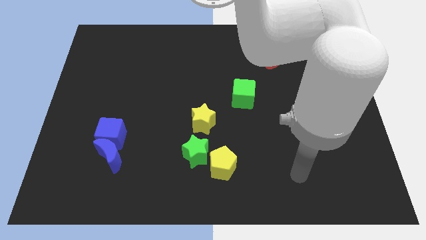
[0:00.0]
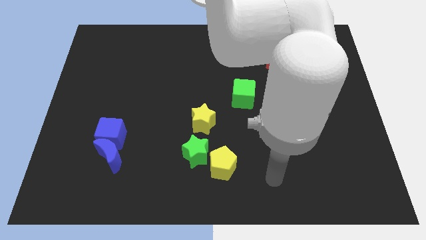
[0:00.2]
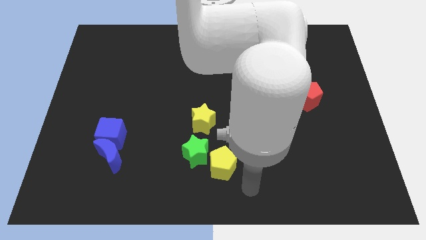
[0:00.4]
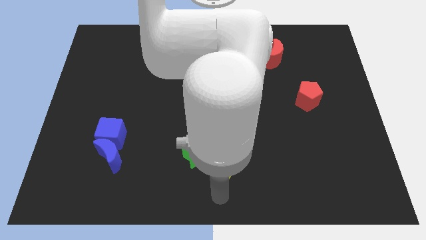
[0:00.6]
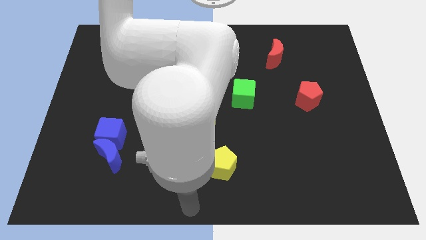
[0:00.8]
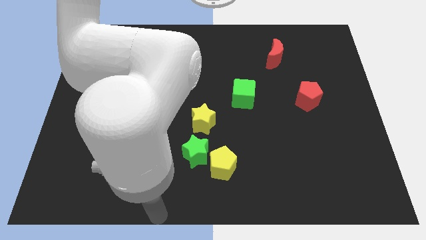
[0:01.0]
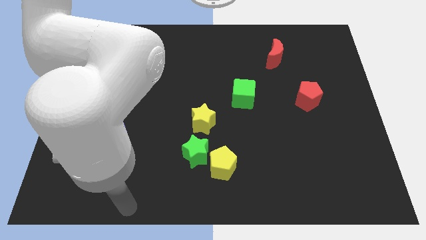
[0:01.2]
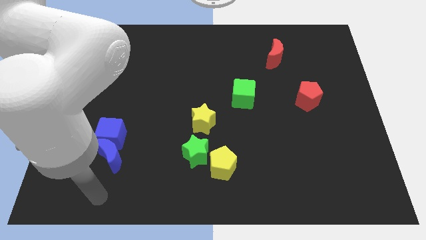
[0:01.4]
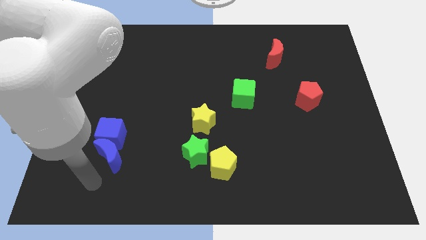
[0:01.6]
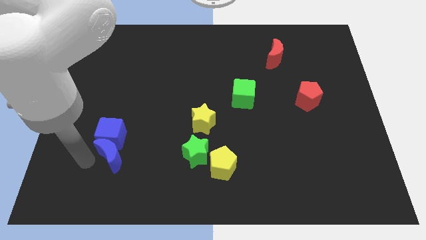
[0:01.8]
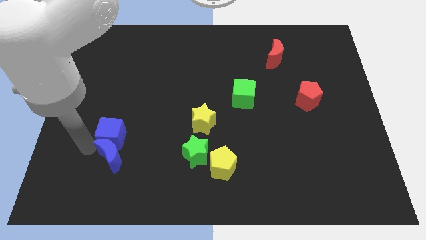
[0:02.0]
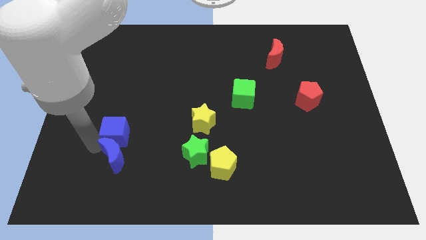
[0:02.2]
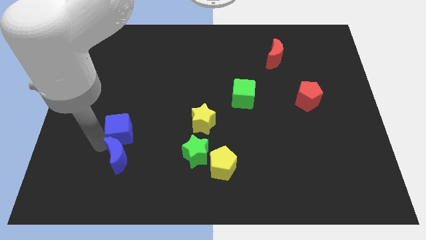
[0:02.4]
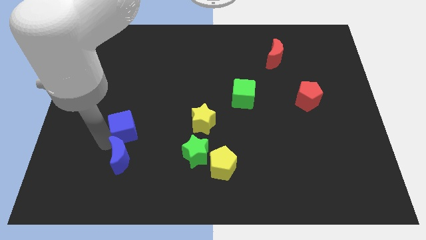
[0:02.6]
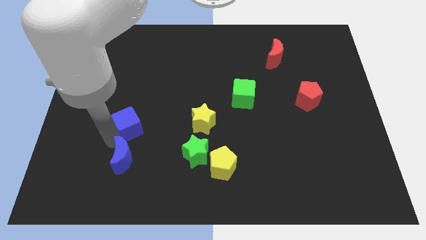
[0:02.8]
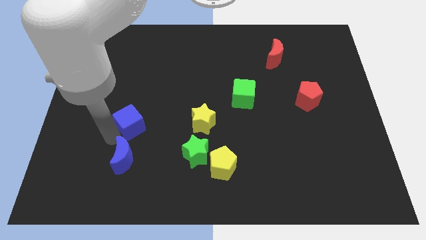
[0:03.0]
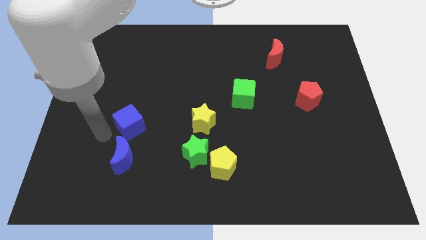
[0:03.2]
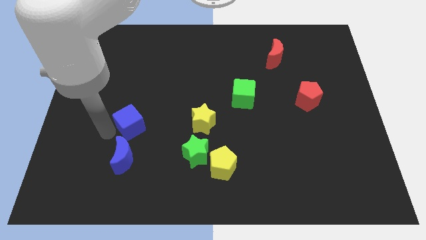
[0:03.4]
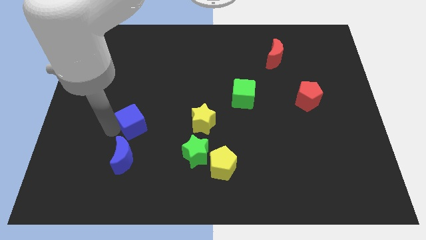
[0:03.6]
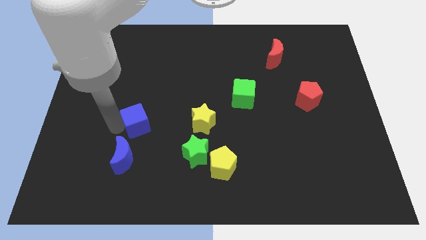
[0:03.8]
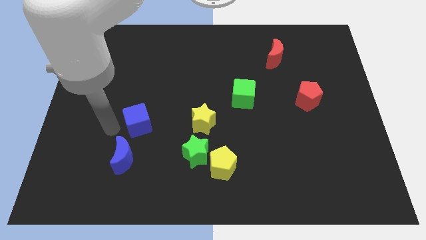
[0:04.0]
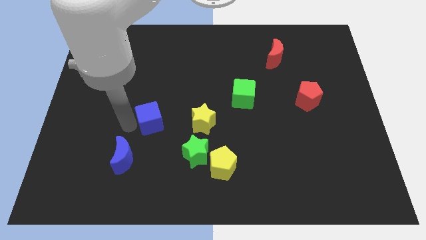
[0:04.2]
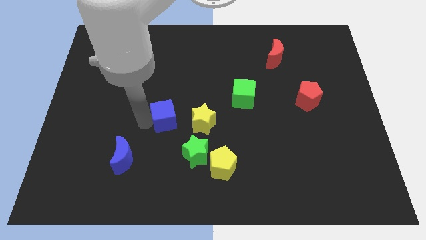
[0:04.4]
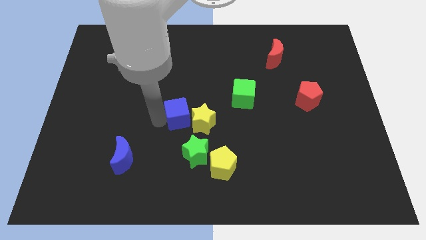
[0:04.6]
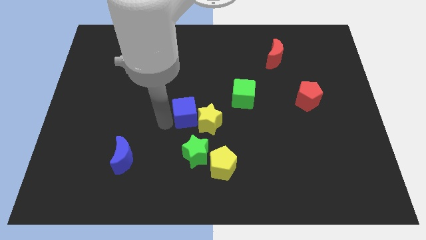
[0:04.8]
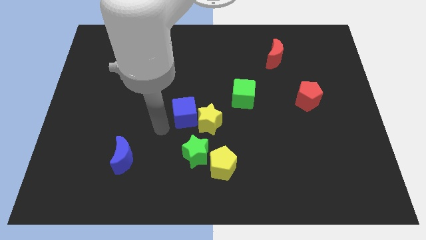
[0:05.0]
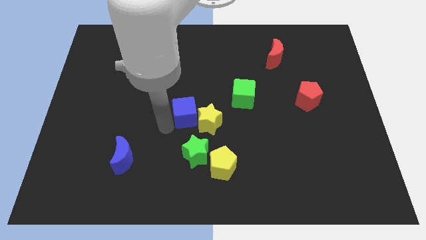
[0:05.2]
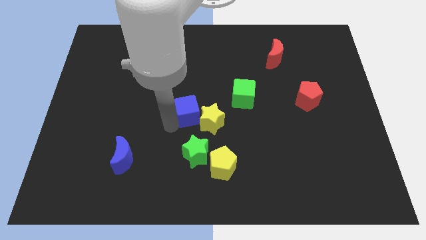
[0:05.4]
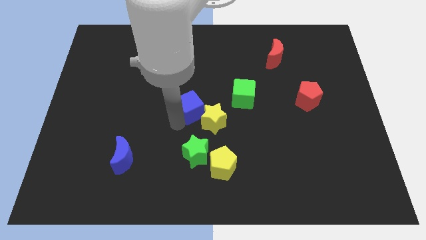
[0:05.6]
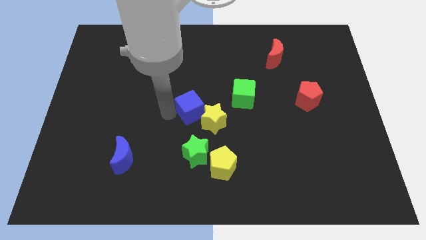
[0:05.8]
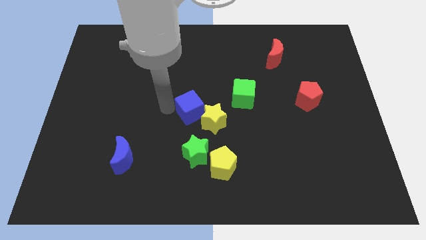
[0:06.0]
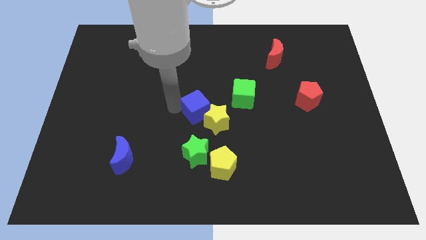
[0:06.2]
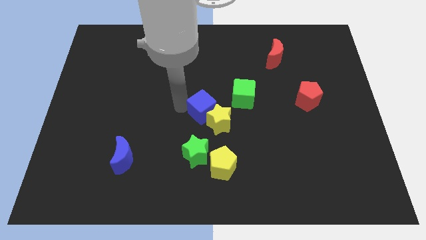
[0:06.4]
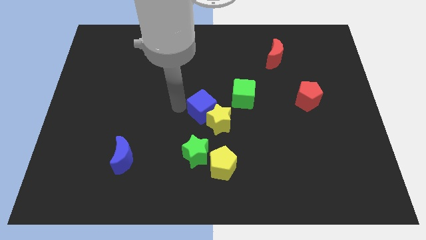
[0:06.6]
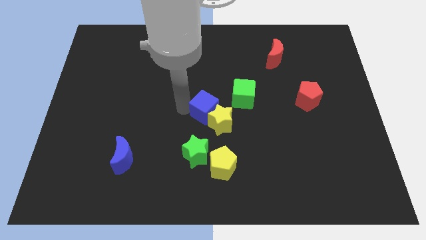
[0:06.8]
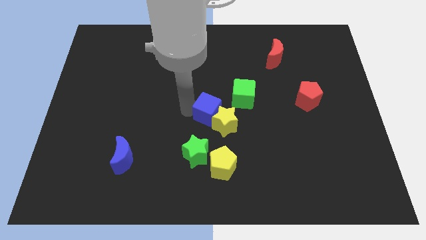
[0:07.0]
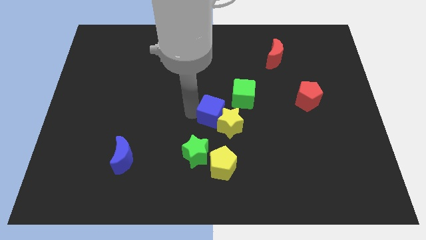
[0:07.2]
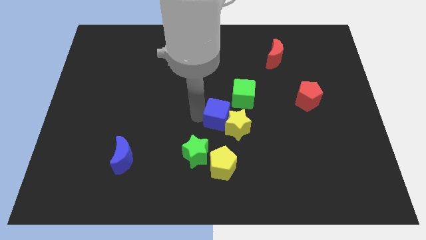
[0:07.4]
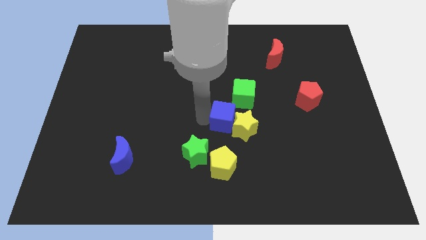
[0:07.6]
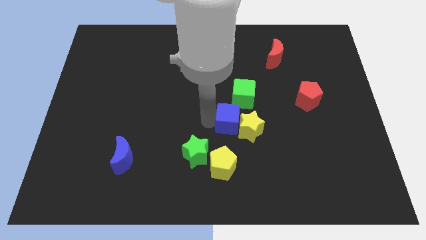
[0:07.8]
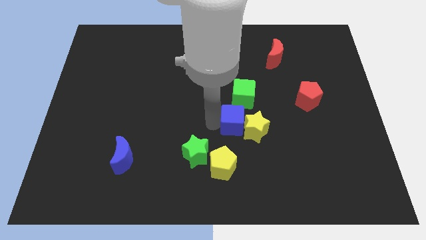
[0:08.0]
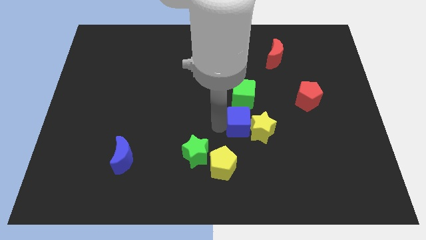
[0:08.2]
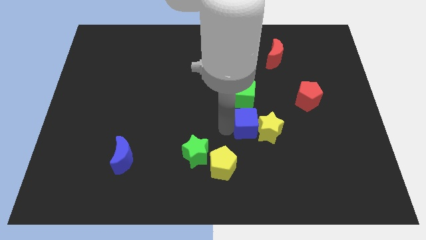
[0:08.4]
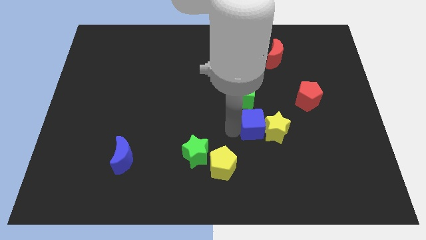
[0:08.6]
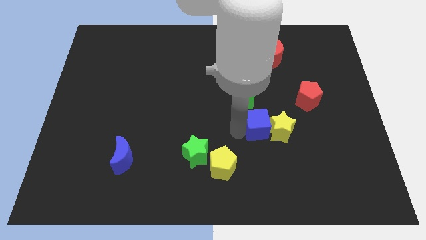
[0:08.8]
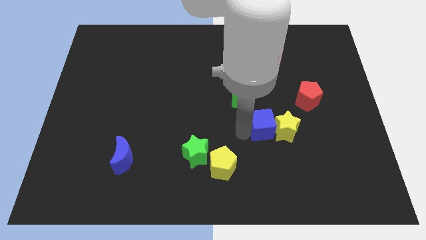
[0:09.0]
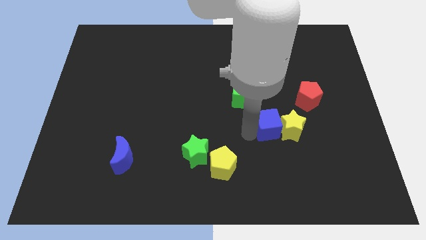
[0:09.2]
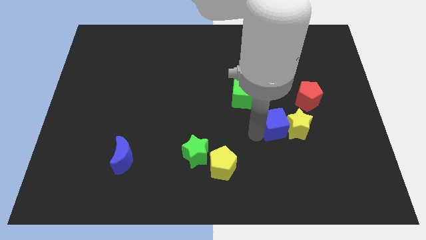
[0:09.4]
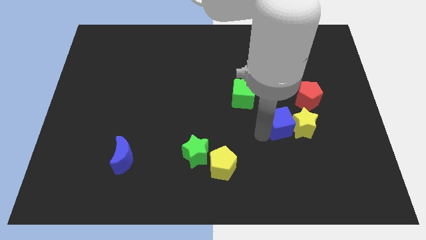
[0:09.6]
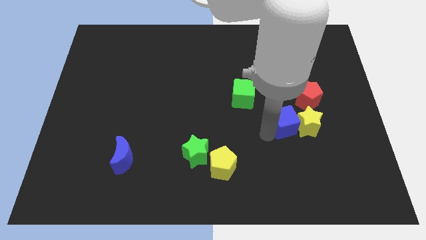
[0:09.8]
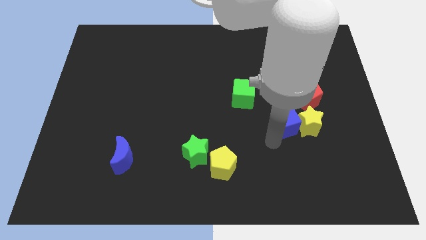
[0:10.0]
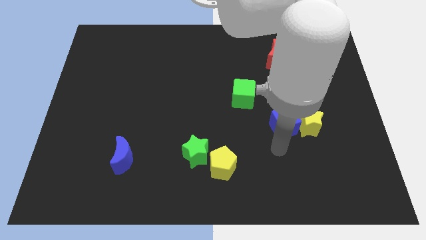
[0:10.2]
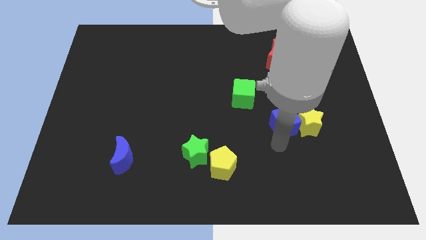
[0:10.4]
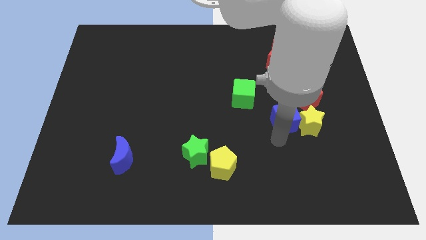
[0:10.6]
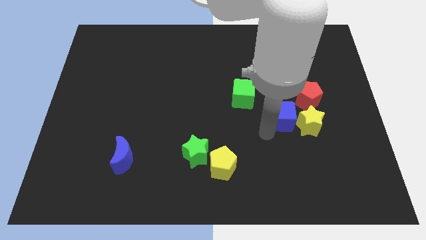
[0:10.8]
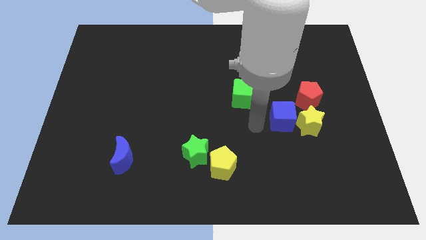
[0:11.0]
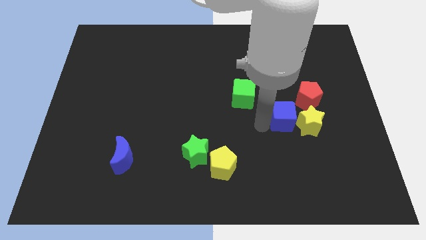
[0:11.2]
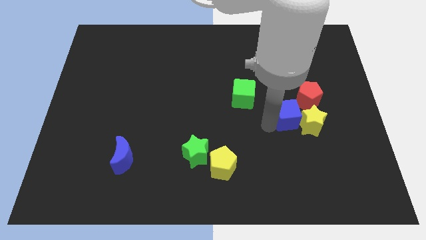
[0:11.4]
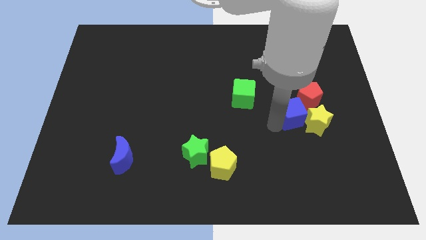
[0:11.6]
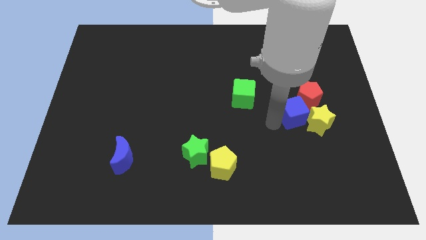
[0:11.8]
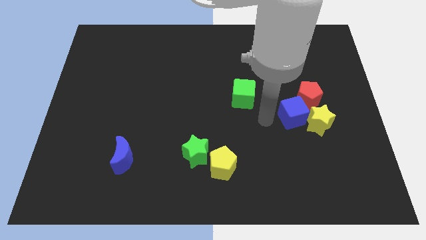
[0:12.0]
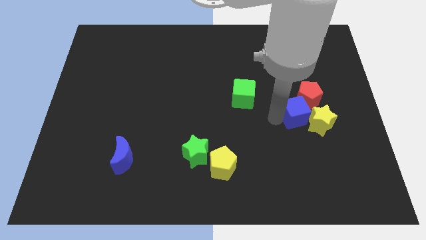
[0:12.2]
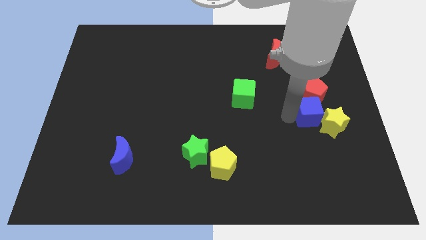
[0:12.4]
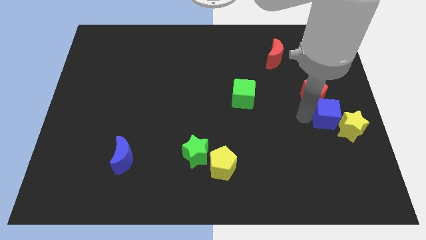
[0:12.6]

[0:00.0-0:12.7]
put the blue cube to the center right
